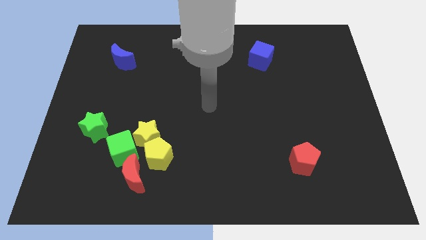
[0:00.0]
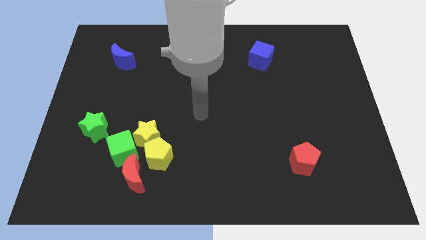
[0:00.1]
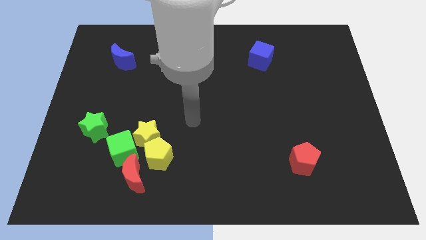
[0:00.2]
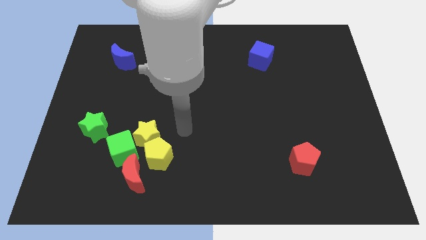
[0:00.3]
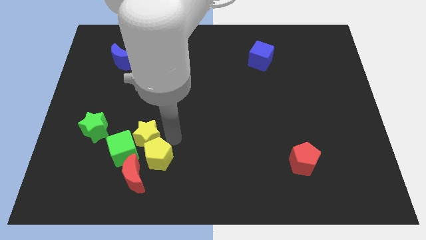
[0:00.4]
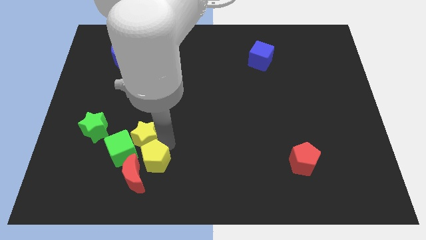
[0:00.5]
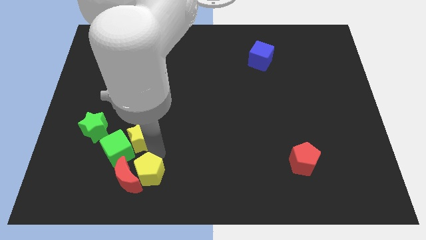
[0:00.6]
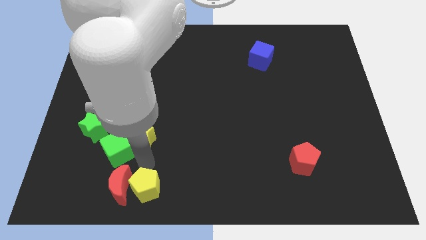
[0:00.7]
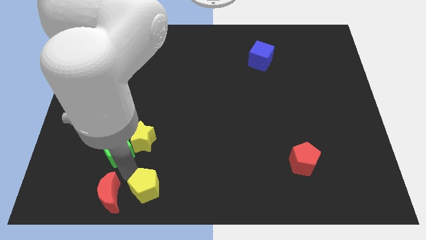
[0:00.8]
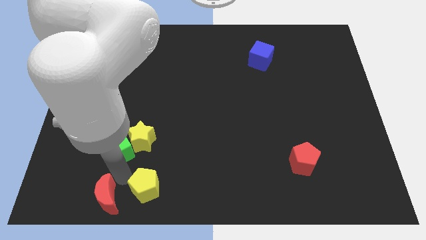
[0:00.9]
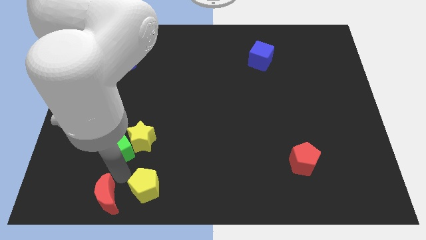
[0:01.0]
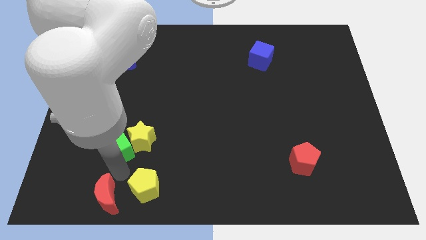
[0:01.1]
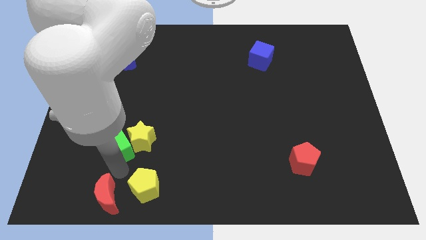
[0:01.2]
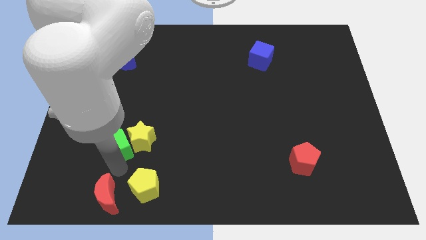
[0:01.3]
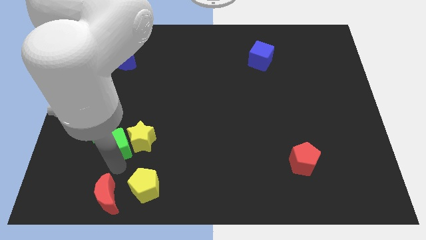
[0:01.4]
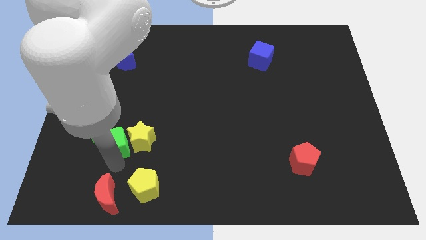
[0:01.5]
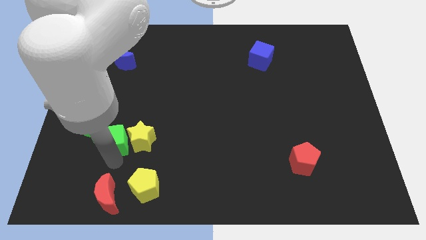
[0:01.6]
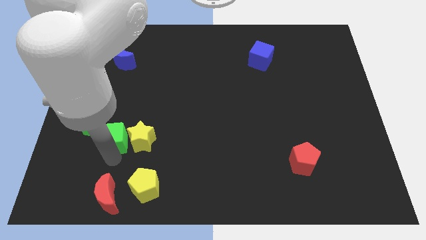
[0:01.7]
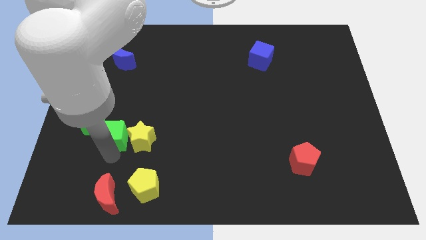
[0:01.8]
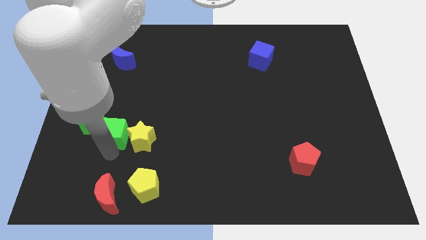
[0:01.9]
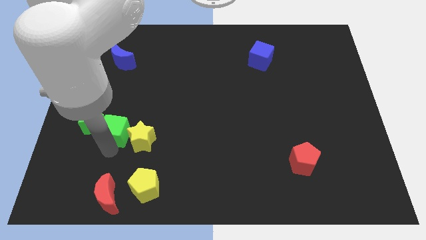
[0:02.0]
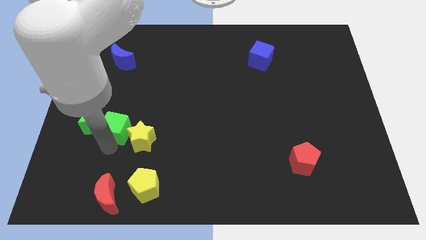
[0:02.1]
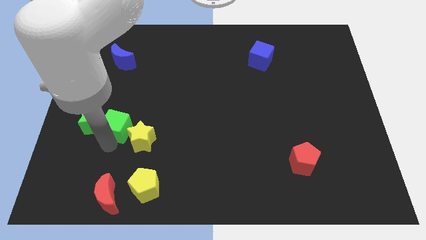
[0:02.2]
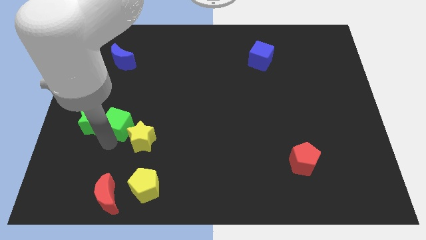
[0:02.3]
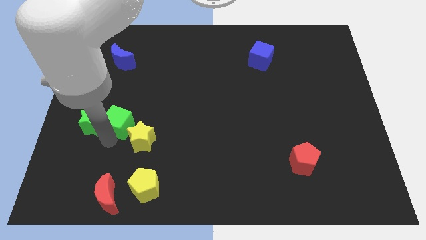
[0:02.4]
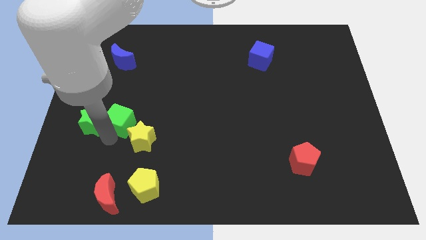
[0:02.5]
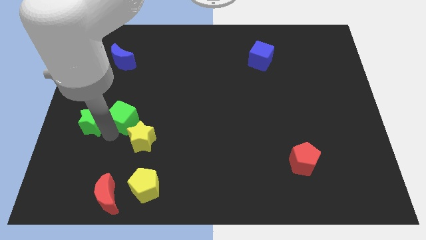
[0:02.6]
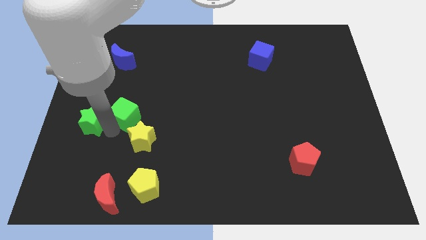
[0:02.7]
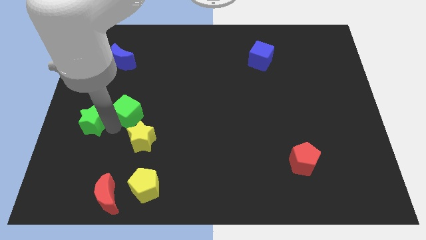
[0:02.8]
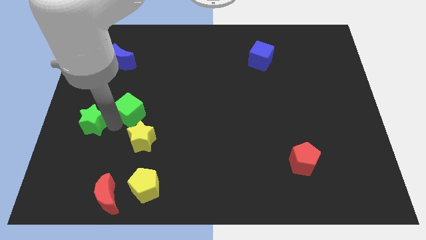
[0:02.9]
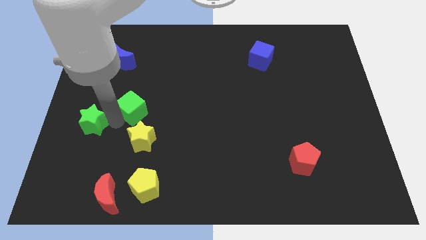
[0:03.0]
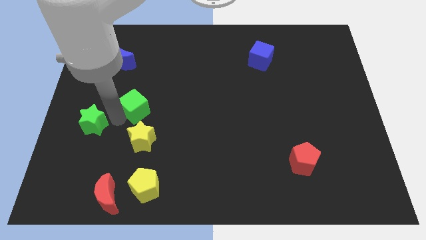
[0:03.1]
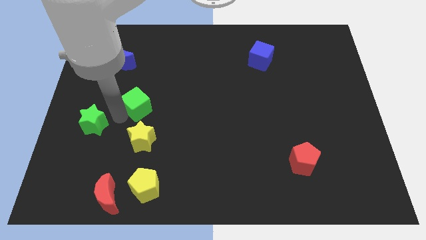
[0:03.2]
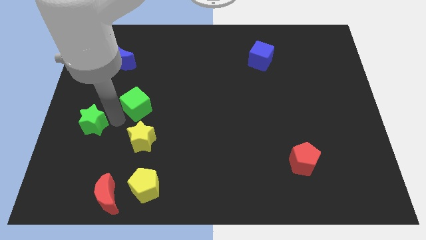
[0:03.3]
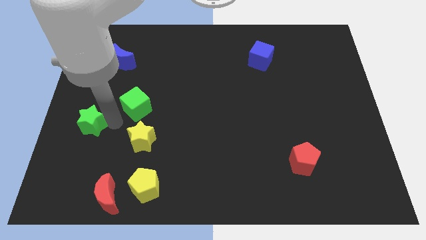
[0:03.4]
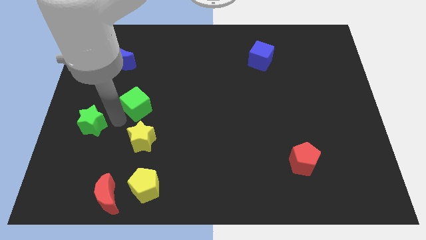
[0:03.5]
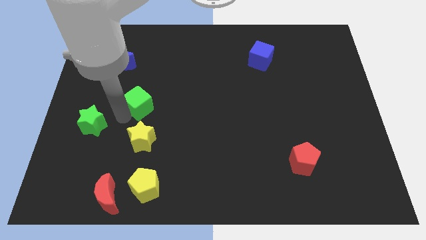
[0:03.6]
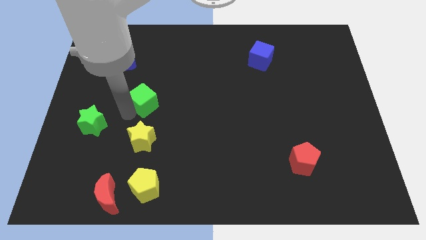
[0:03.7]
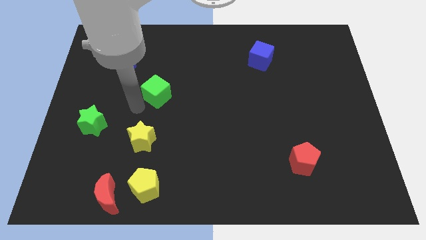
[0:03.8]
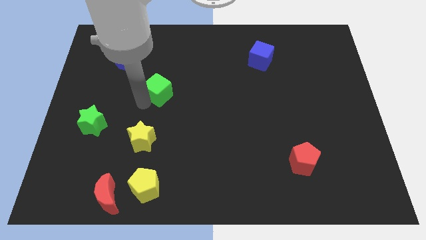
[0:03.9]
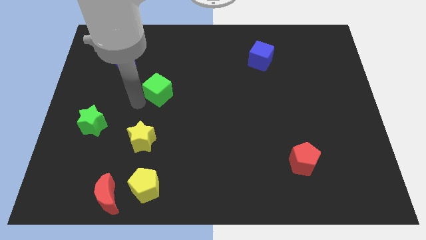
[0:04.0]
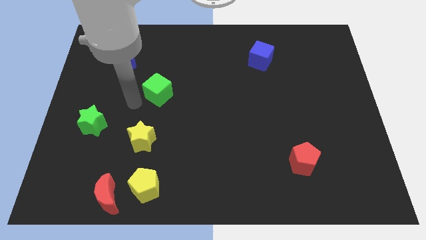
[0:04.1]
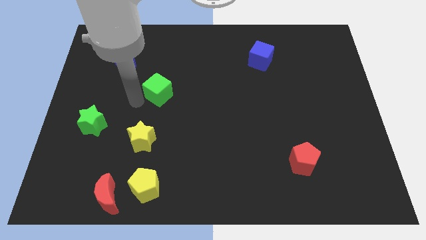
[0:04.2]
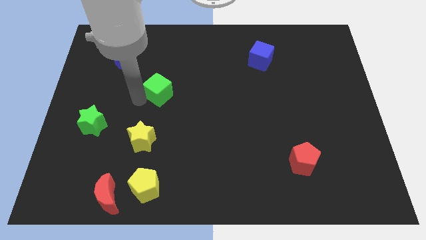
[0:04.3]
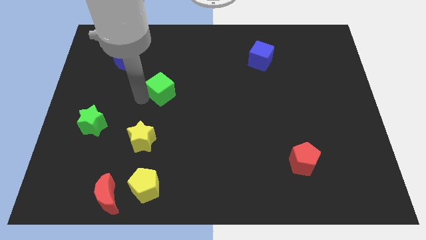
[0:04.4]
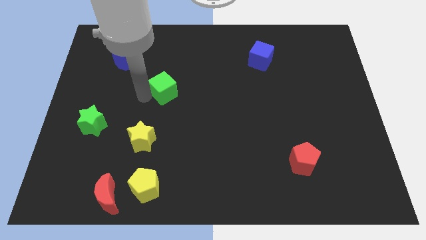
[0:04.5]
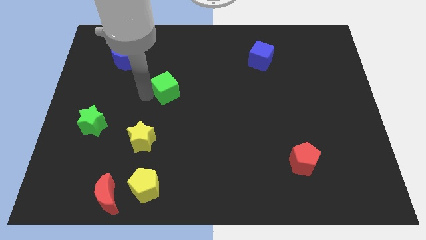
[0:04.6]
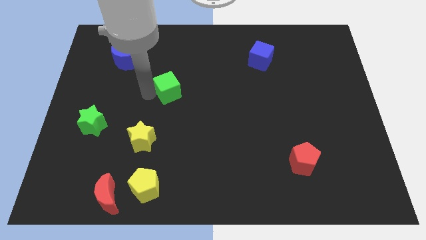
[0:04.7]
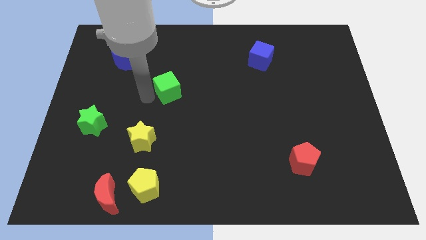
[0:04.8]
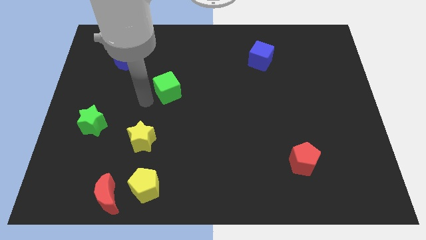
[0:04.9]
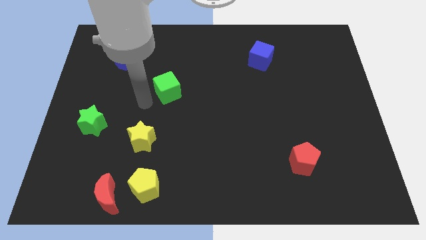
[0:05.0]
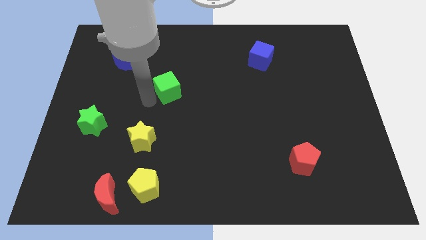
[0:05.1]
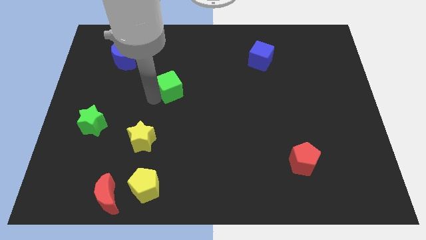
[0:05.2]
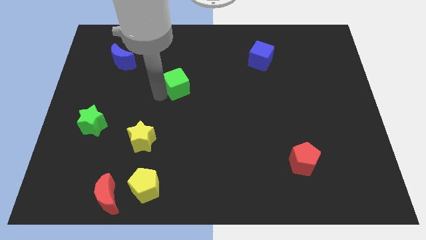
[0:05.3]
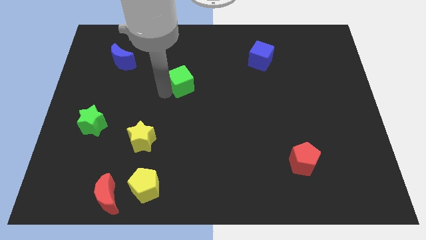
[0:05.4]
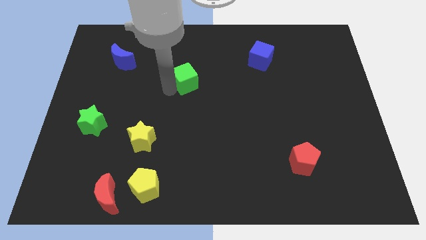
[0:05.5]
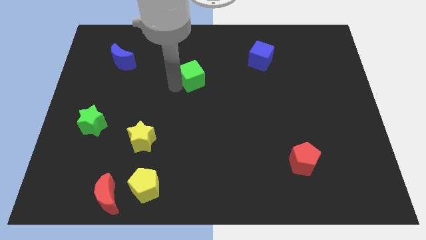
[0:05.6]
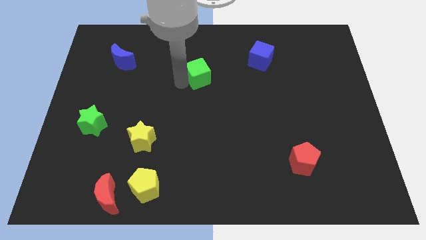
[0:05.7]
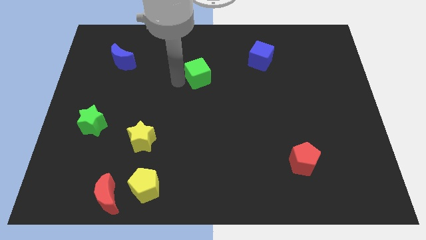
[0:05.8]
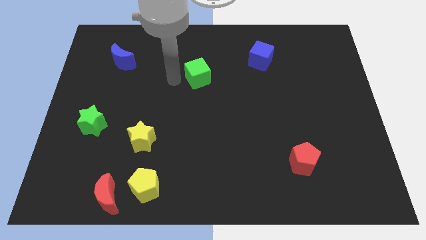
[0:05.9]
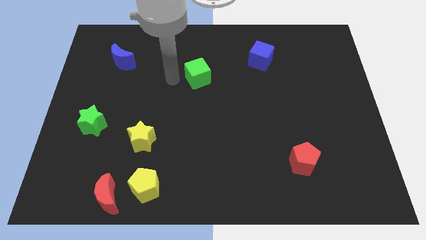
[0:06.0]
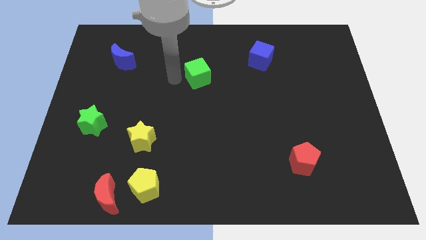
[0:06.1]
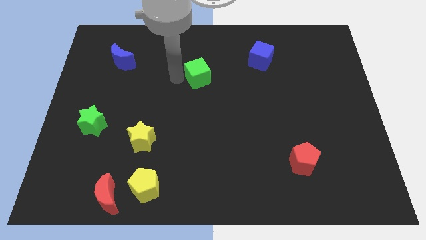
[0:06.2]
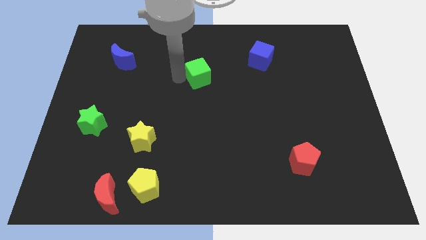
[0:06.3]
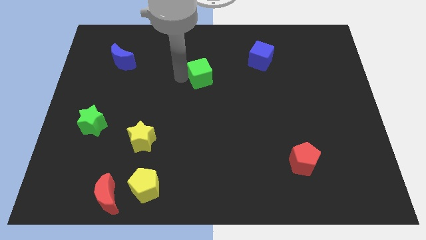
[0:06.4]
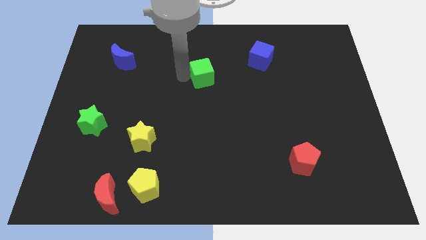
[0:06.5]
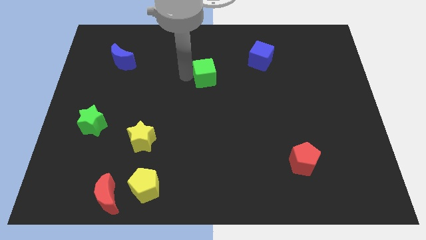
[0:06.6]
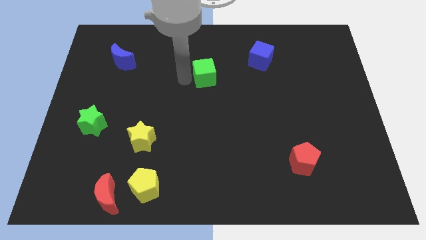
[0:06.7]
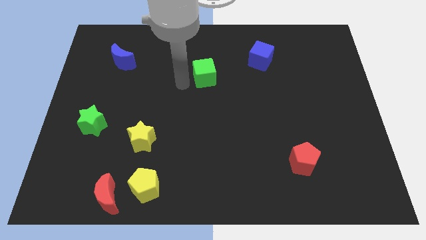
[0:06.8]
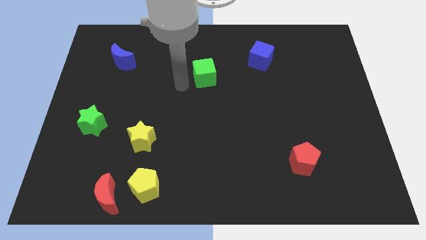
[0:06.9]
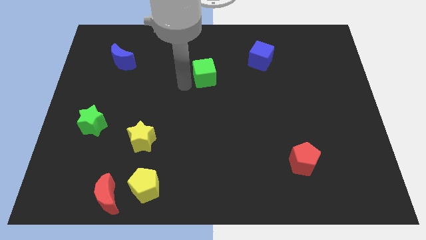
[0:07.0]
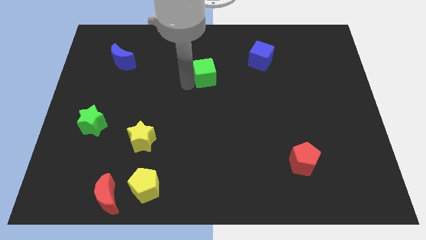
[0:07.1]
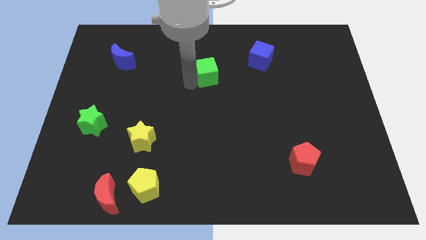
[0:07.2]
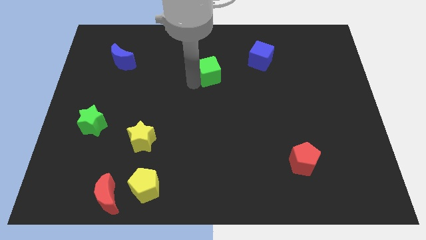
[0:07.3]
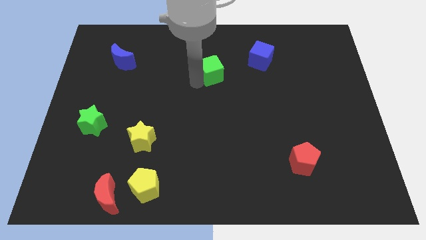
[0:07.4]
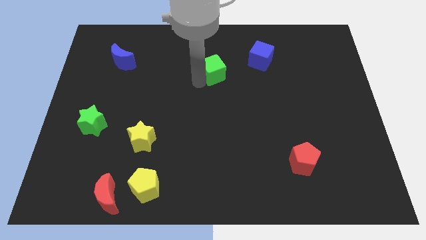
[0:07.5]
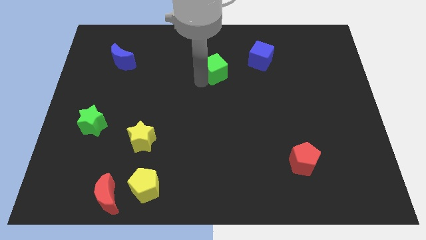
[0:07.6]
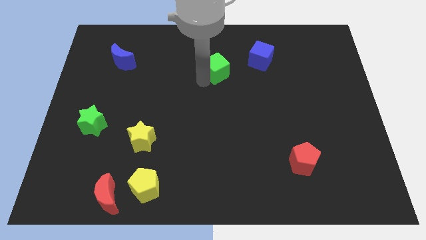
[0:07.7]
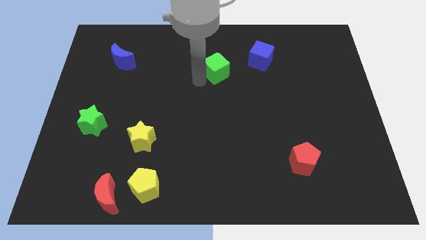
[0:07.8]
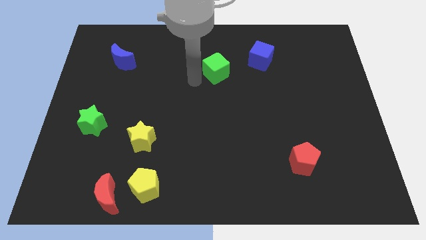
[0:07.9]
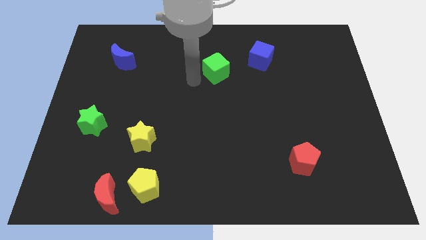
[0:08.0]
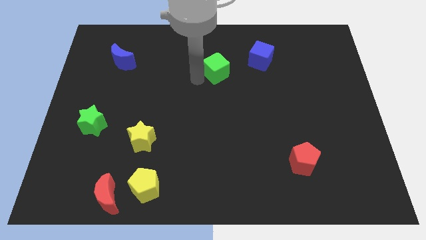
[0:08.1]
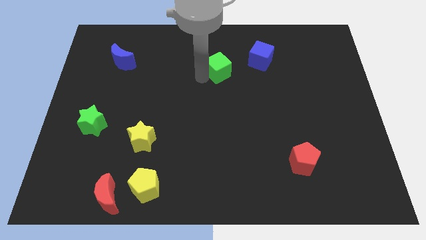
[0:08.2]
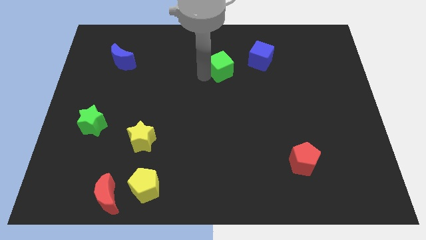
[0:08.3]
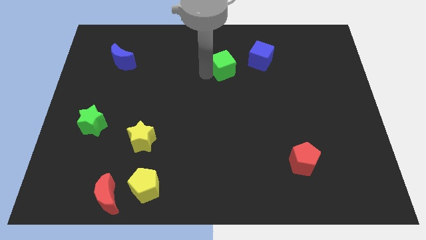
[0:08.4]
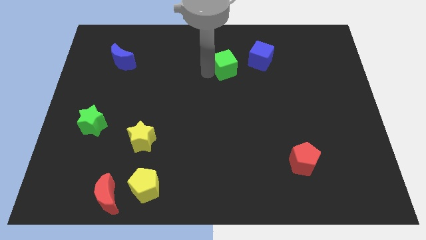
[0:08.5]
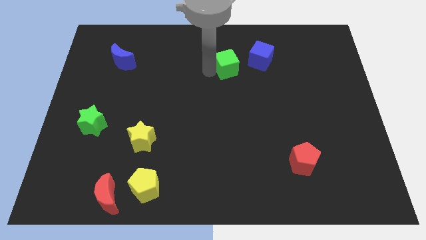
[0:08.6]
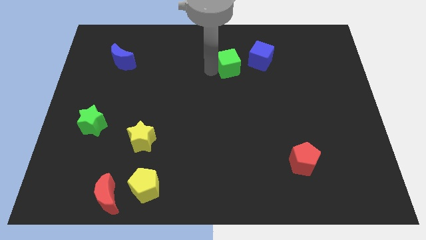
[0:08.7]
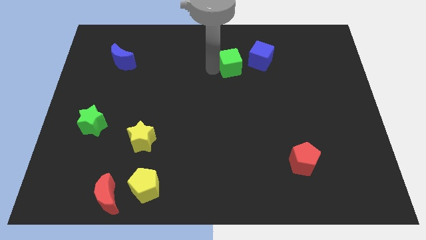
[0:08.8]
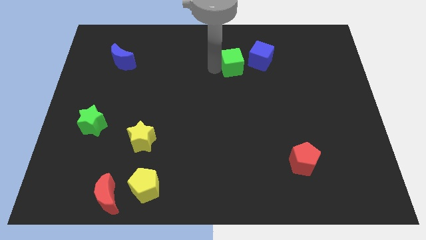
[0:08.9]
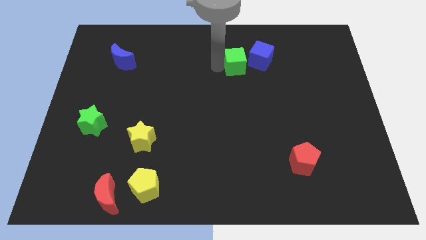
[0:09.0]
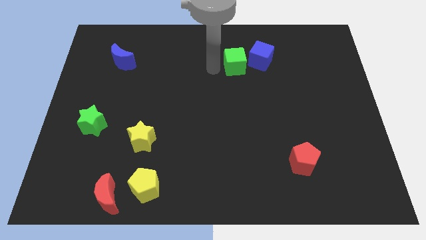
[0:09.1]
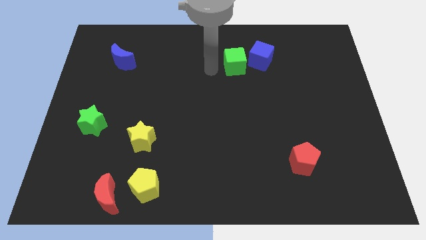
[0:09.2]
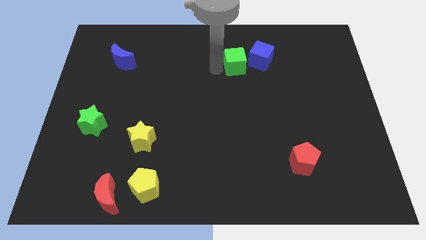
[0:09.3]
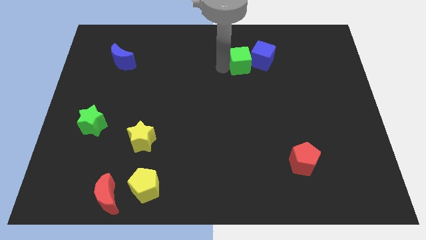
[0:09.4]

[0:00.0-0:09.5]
push the green cube to the blue cube
